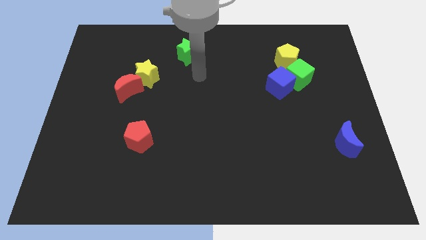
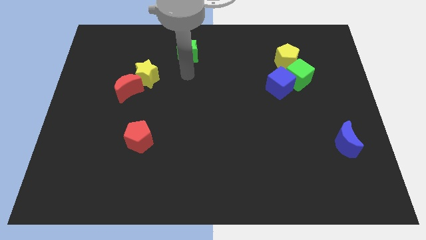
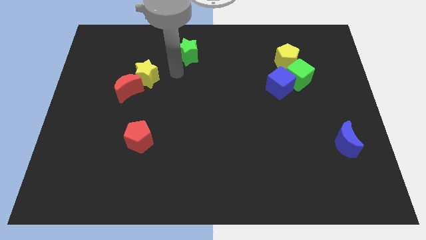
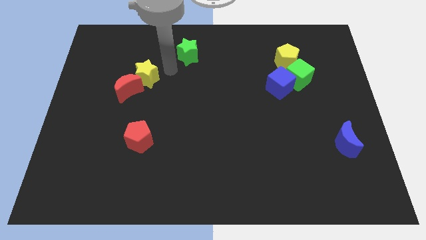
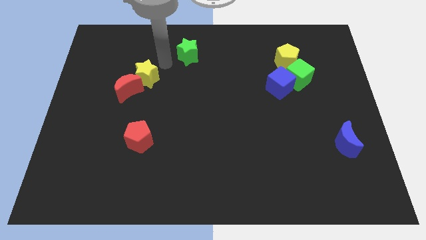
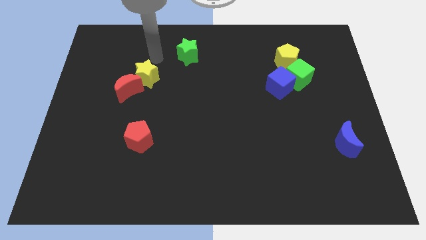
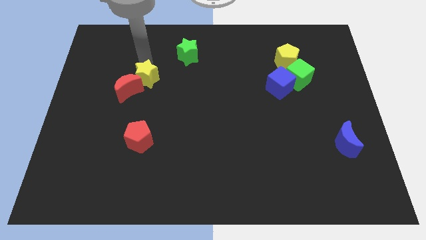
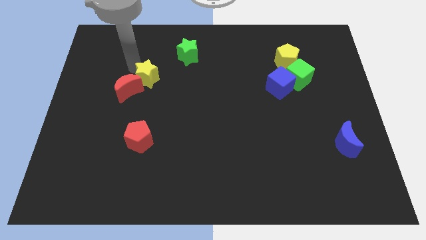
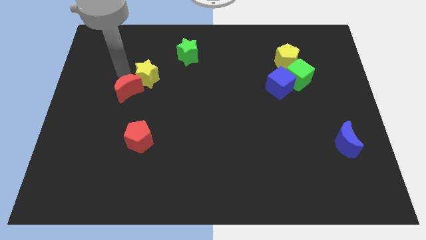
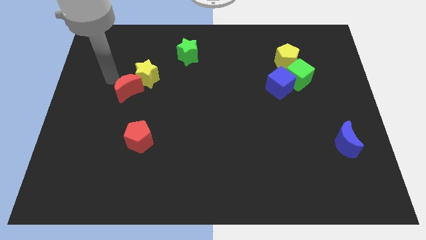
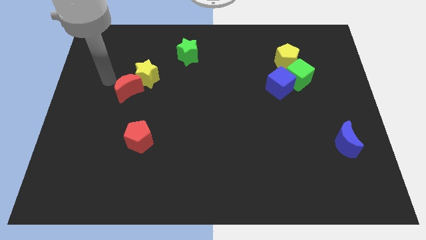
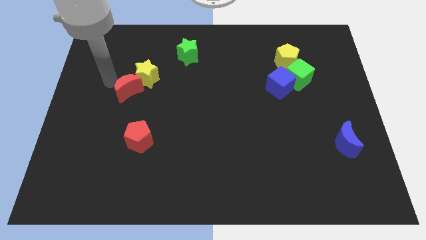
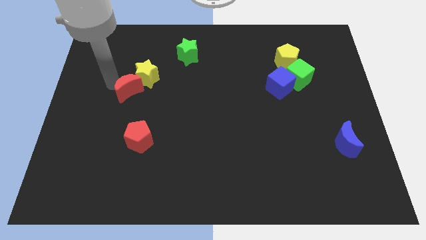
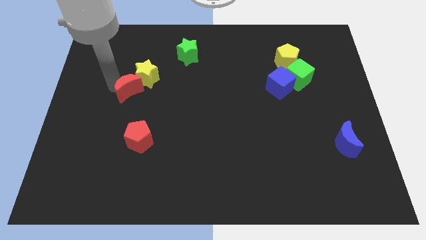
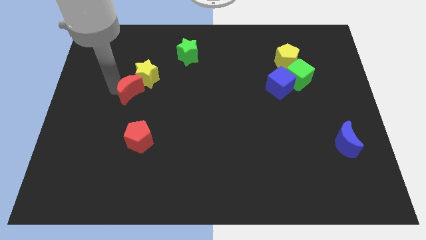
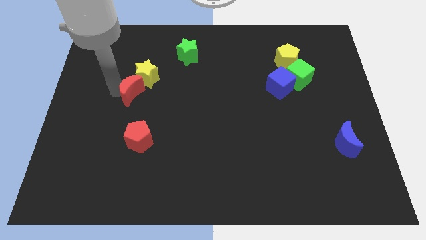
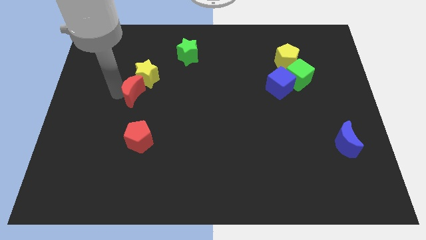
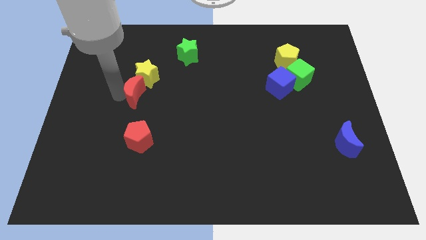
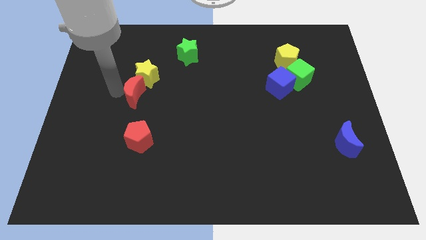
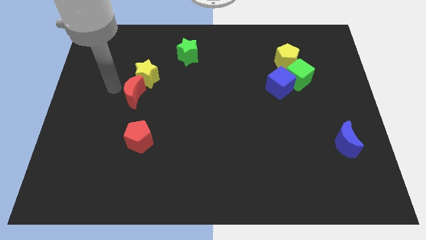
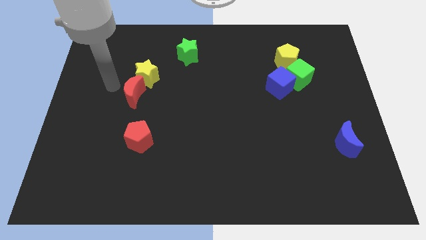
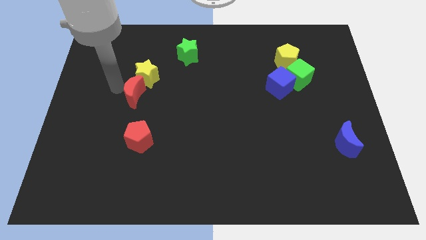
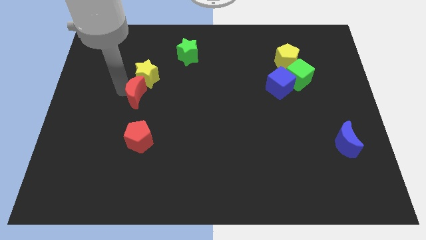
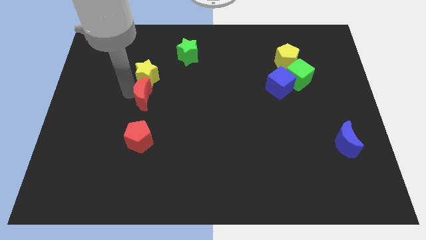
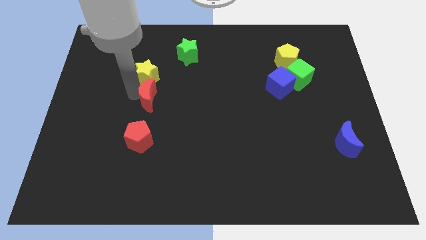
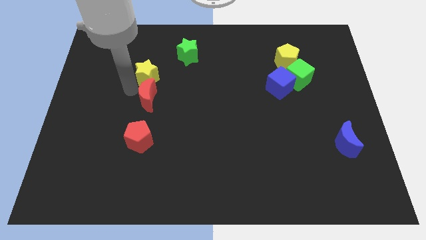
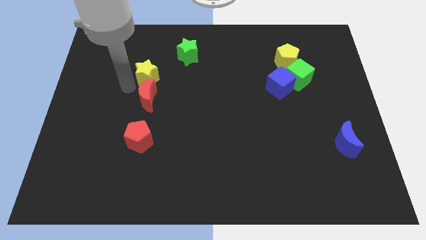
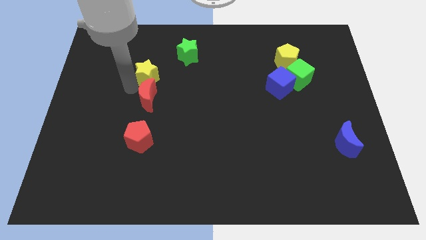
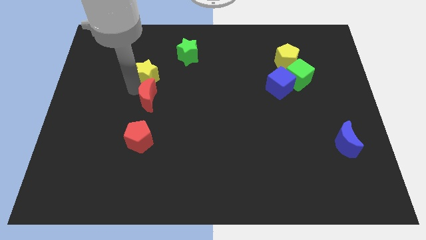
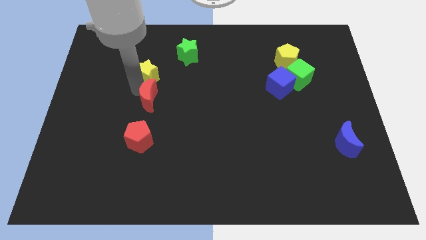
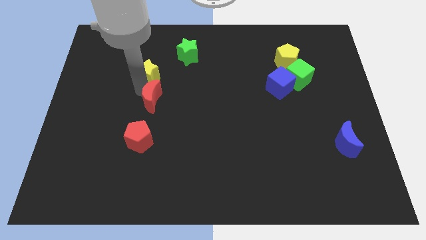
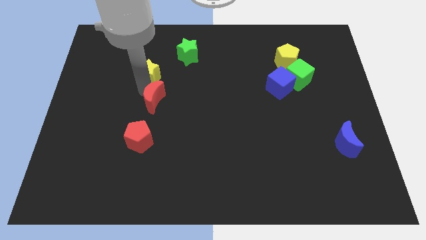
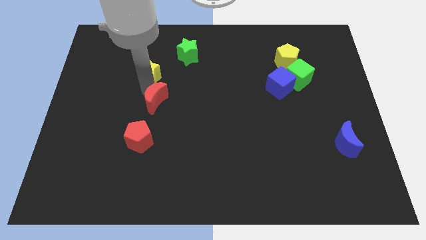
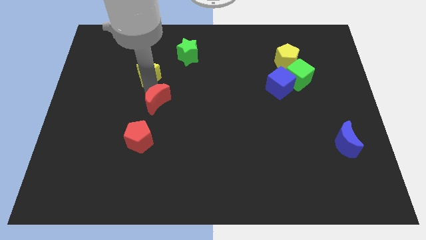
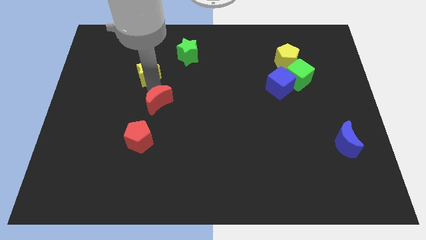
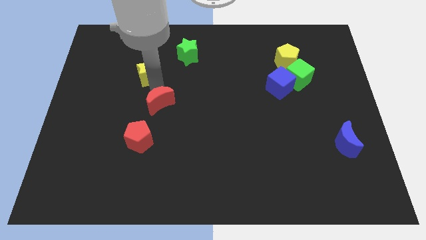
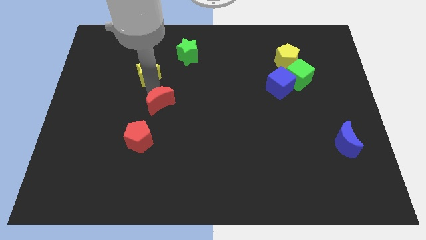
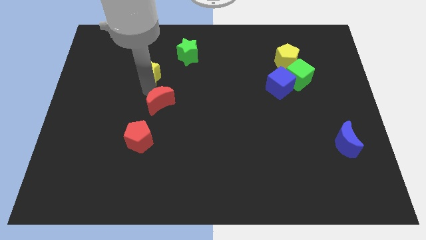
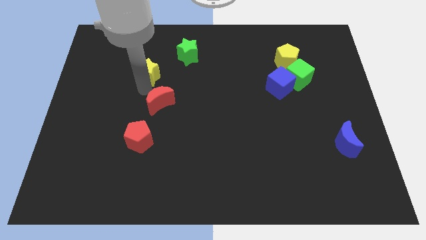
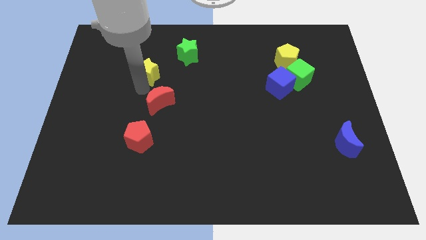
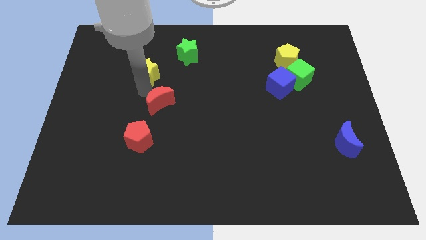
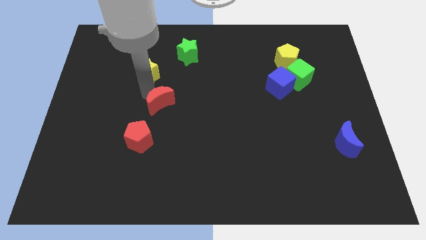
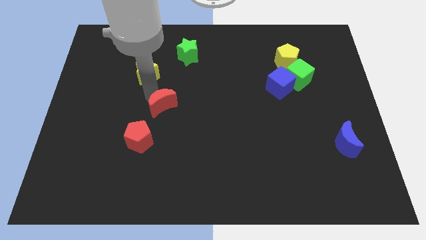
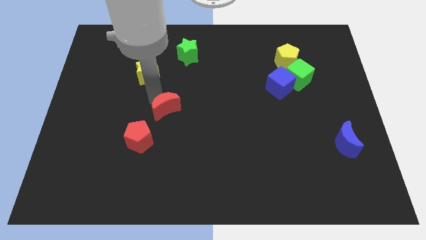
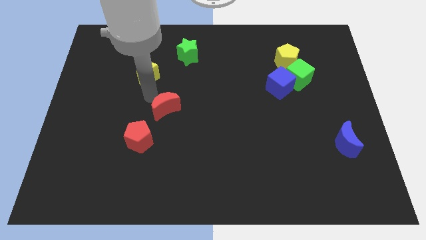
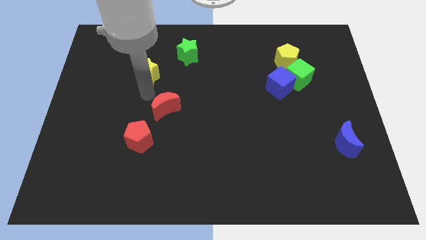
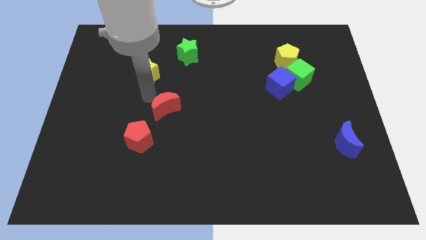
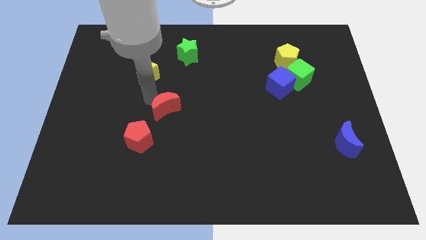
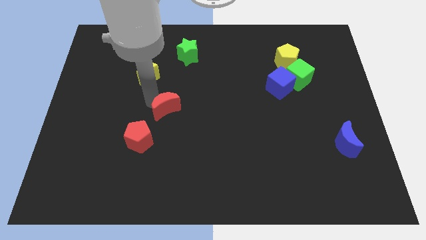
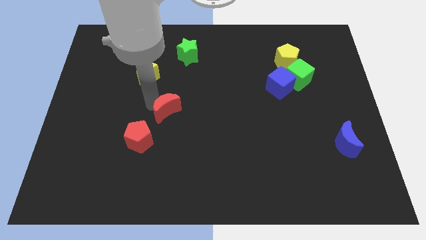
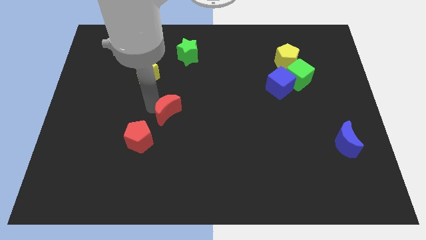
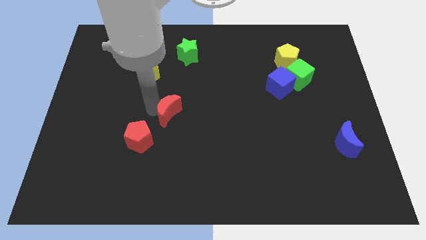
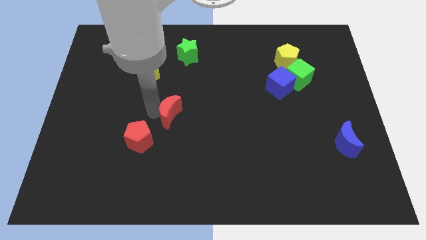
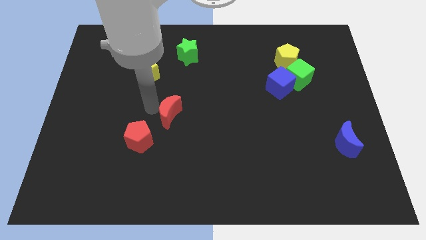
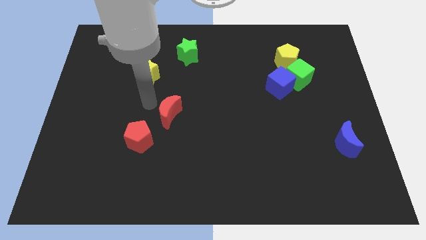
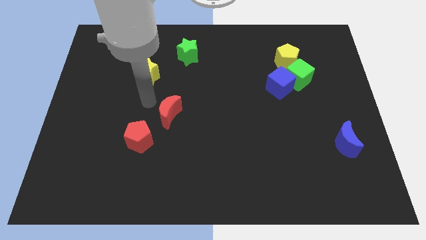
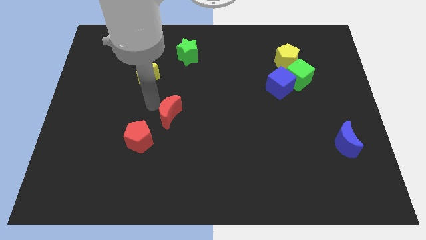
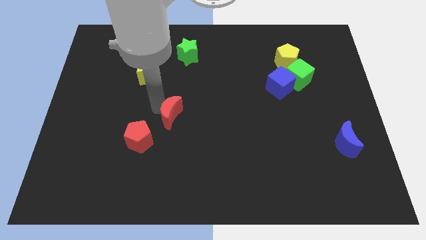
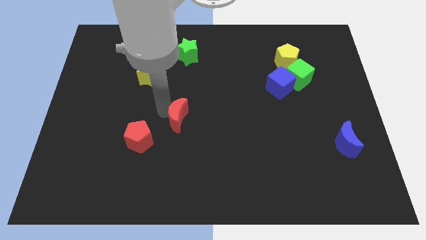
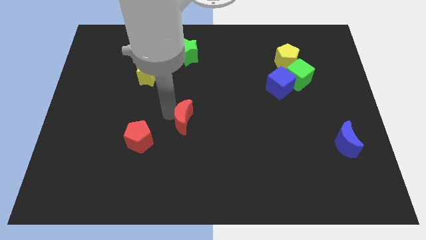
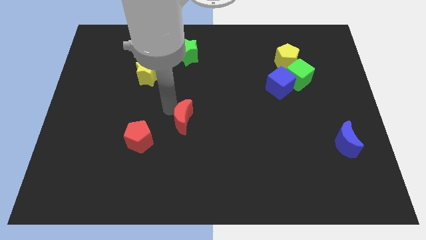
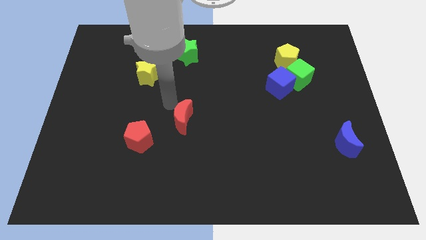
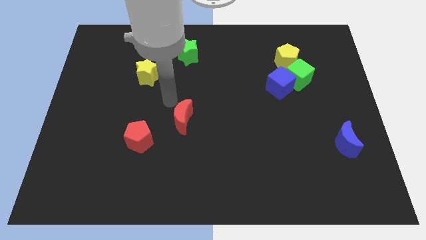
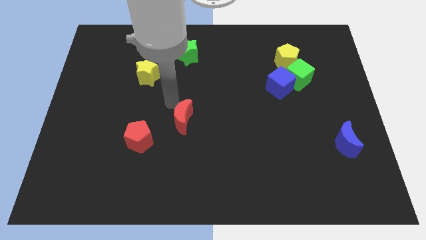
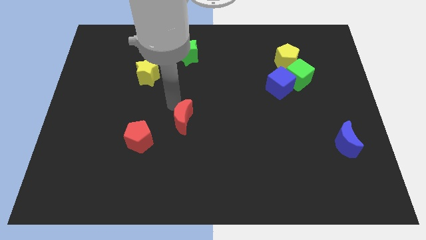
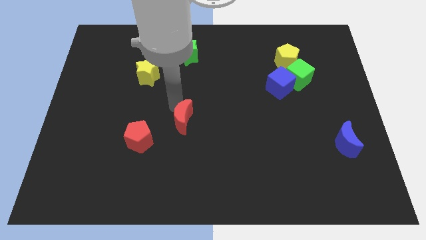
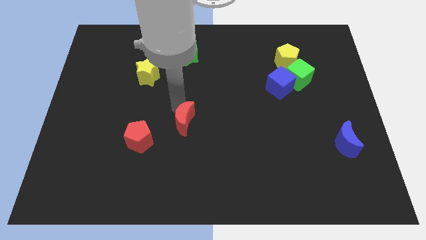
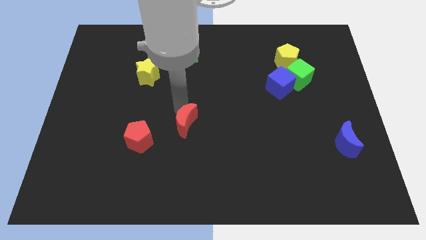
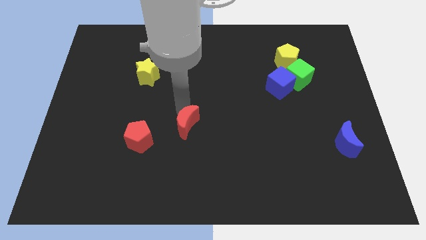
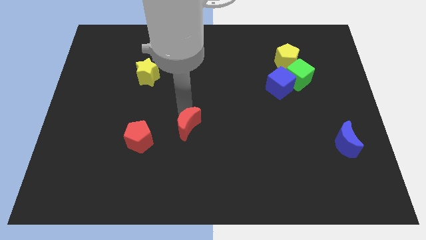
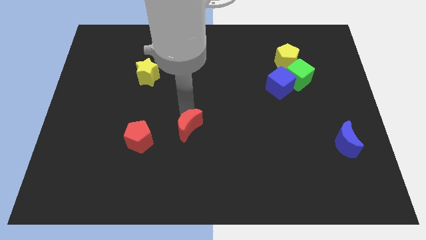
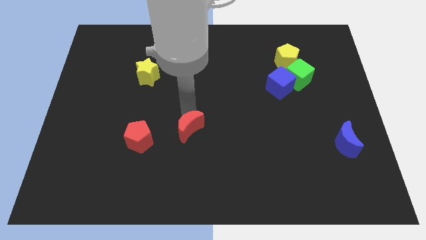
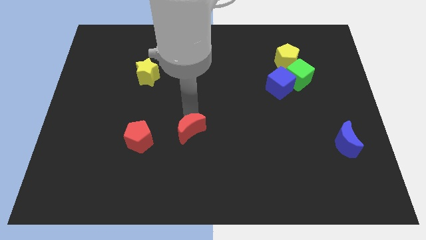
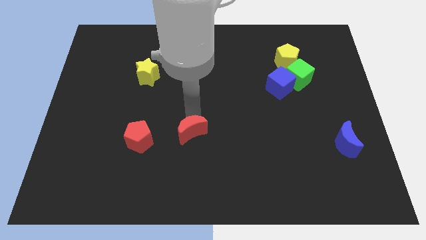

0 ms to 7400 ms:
move the red moon down and then to the right

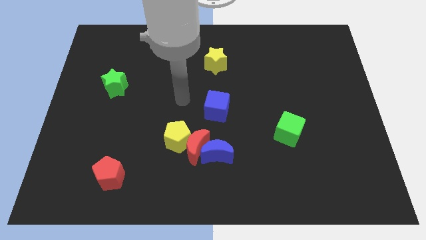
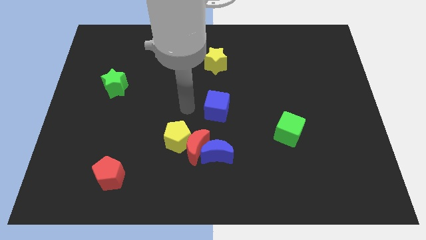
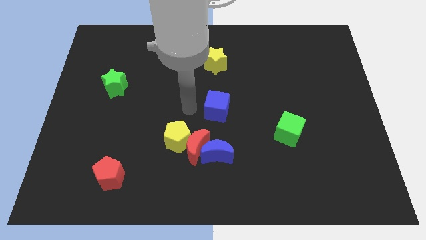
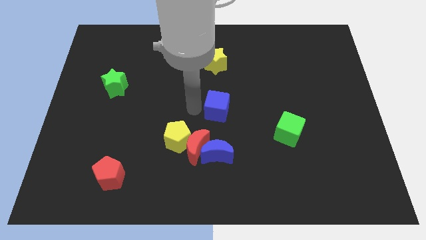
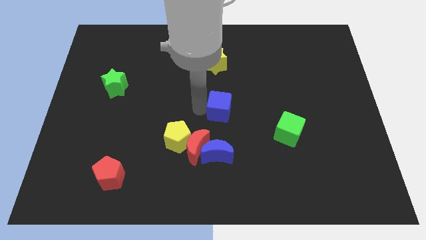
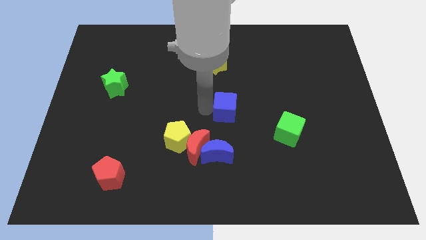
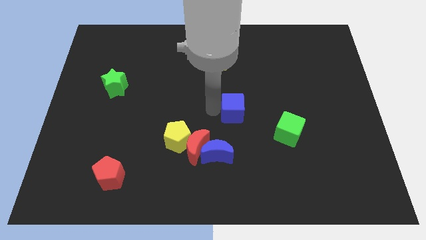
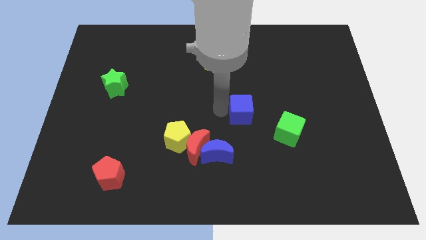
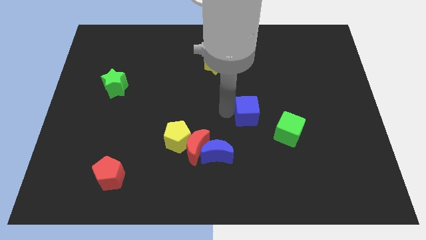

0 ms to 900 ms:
slightly push the blue cube to the right
